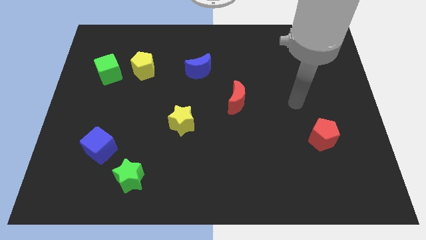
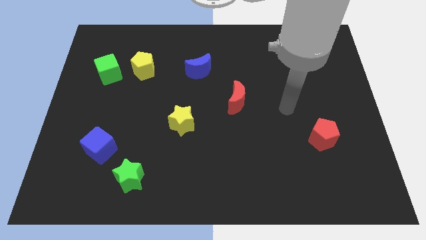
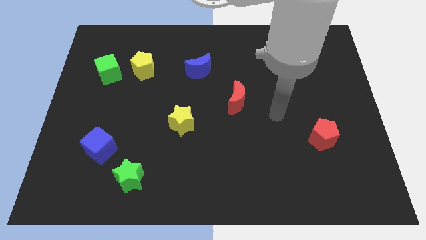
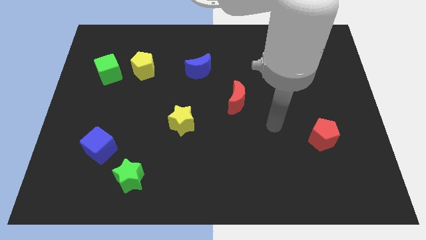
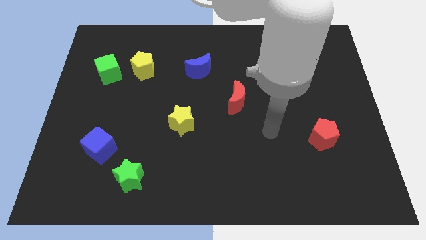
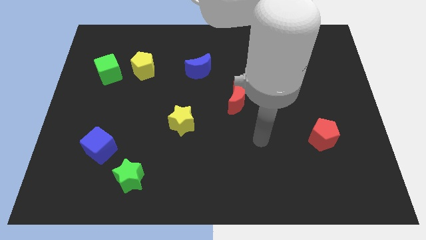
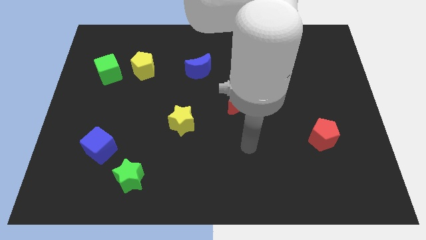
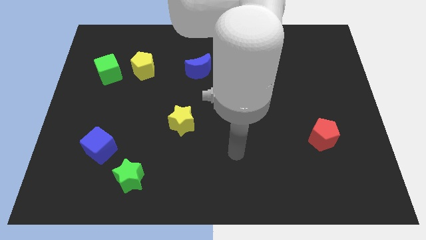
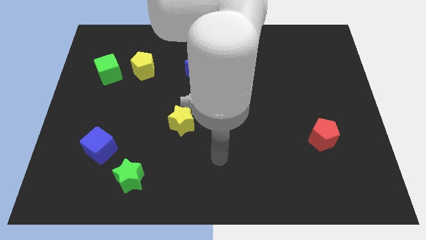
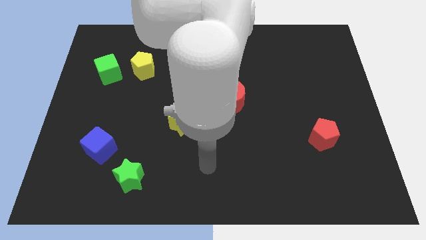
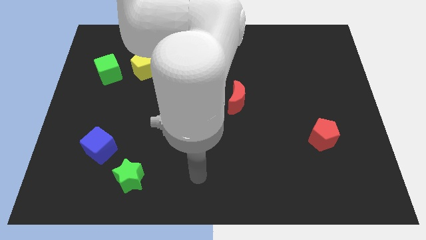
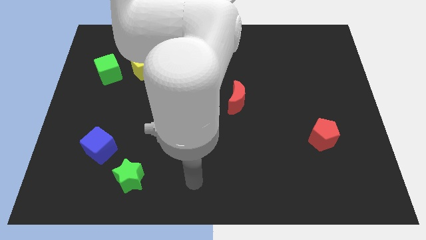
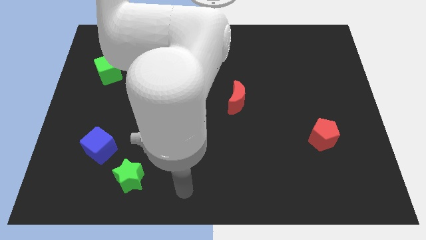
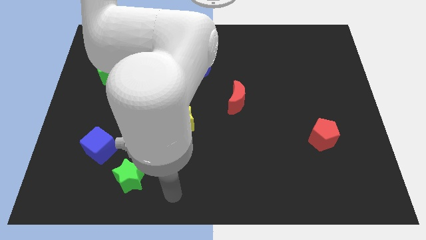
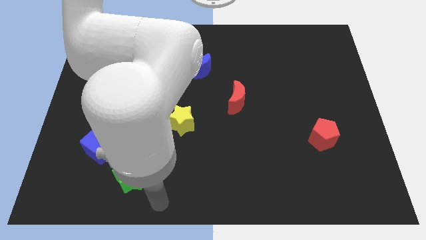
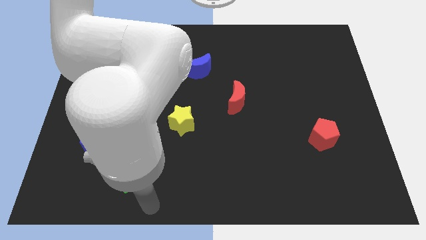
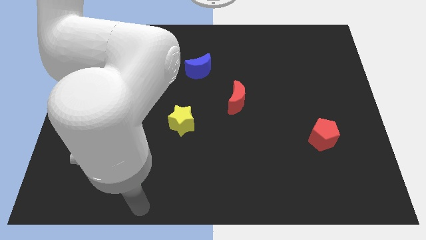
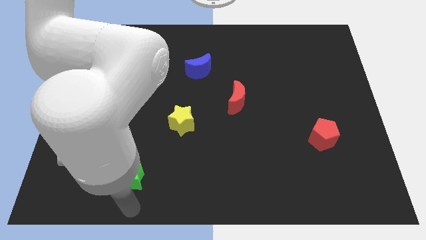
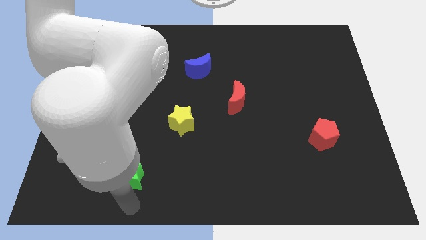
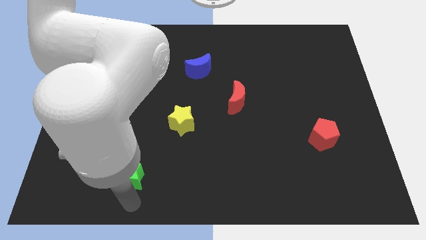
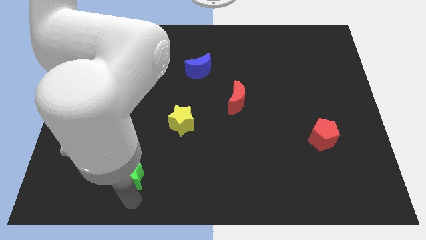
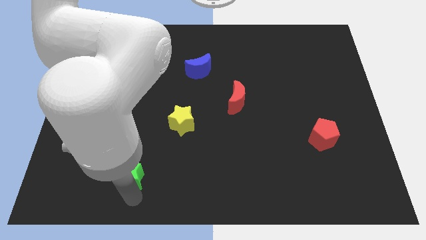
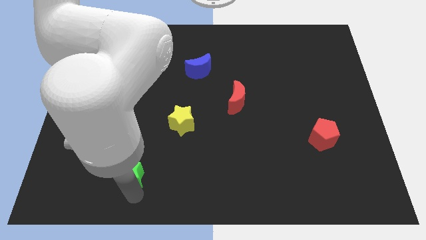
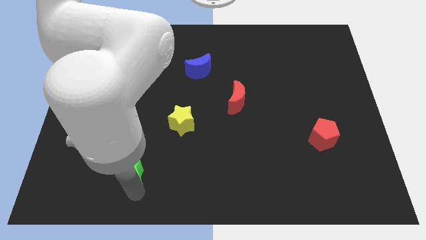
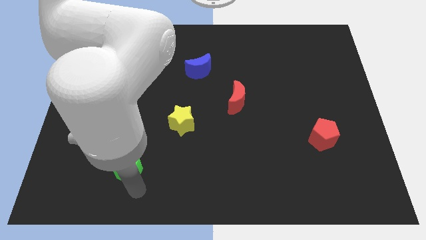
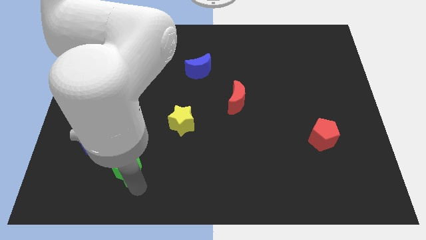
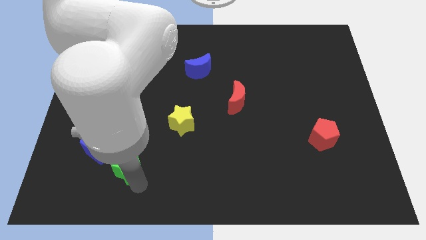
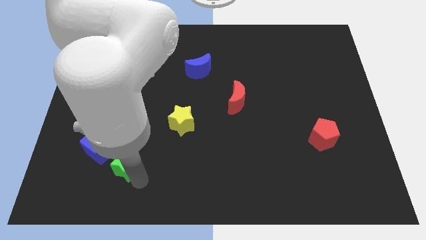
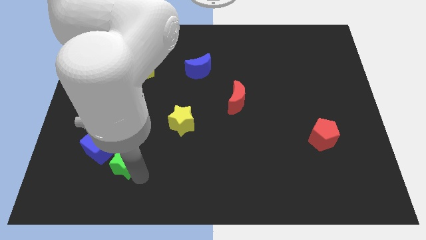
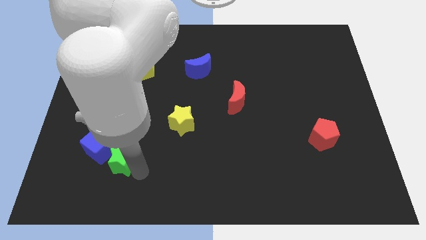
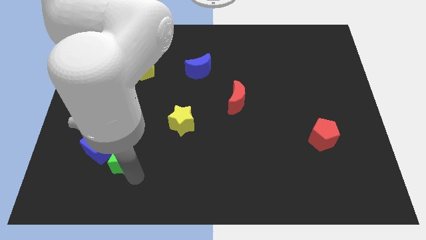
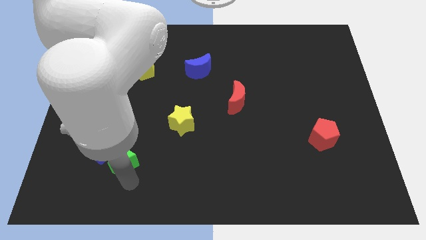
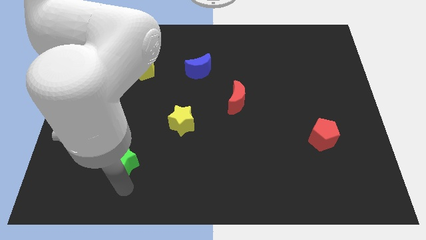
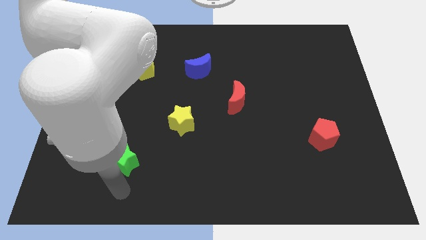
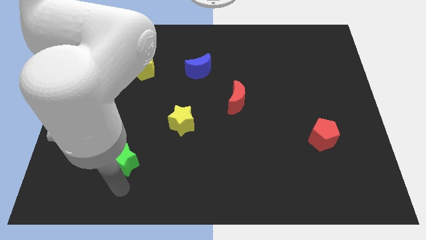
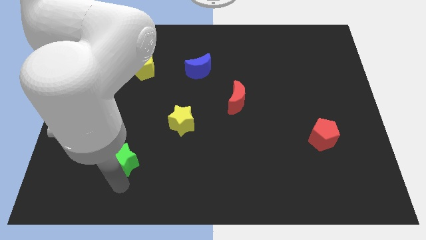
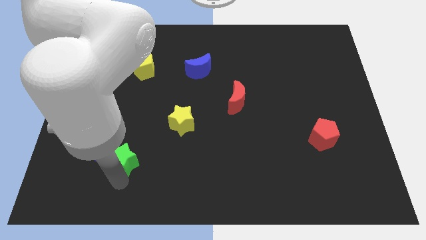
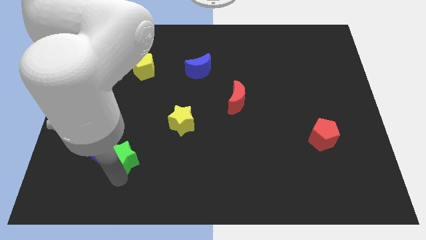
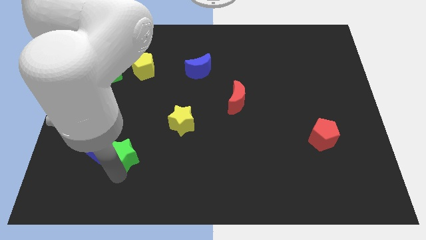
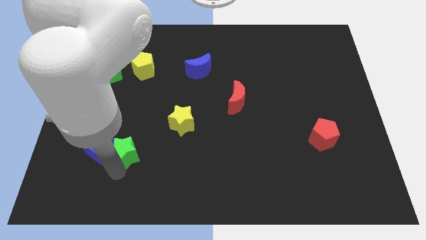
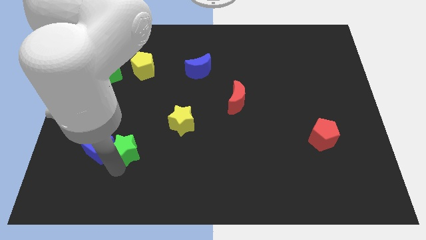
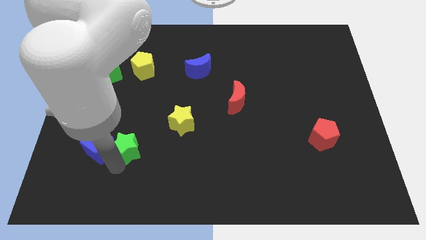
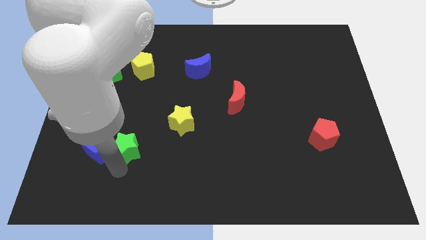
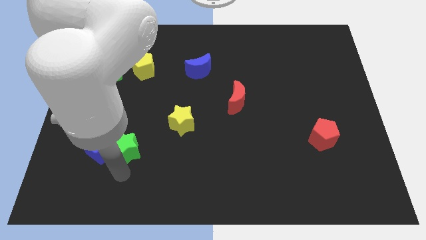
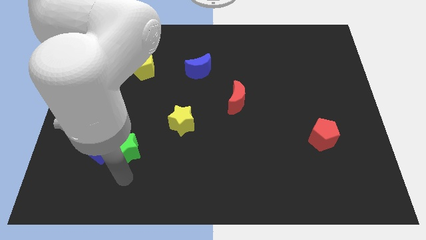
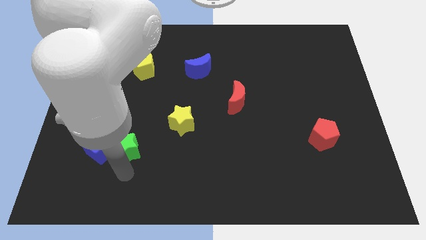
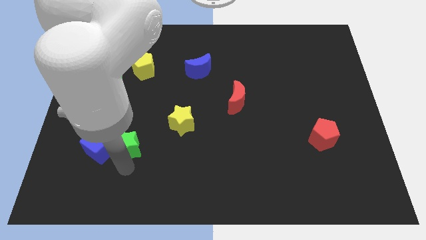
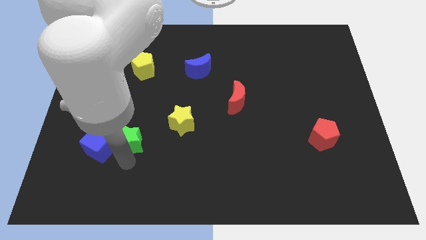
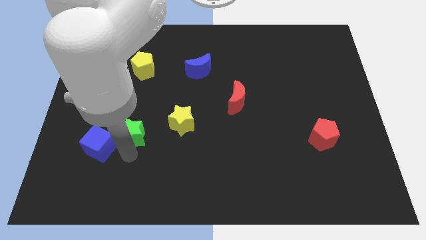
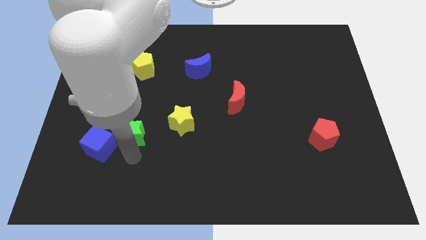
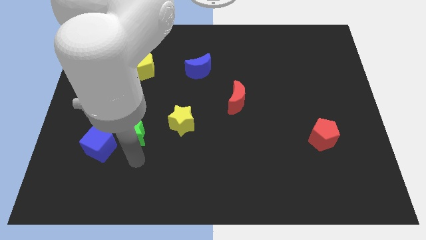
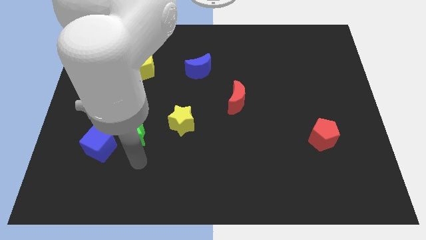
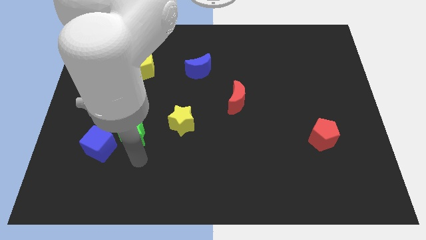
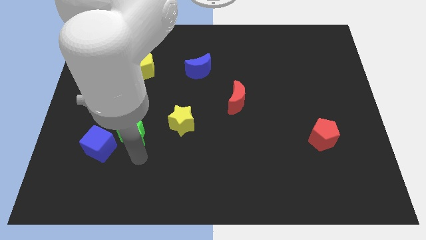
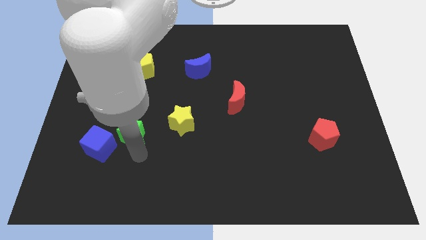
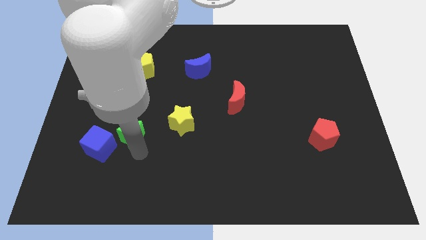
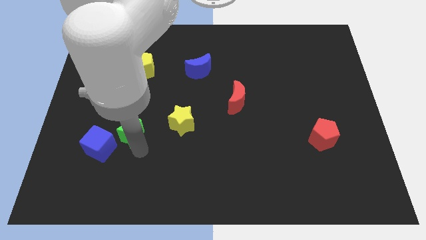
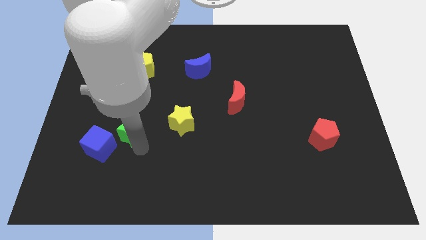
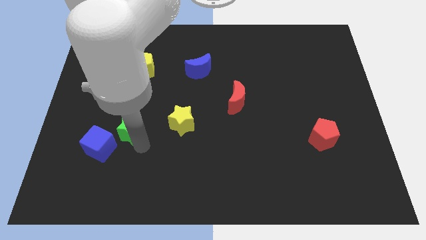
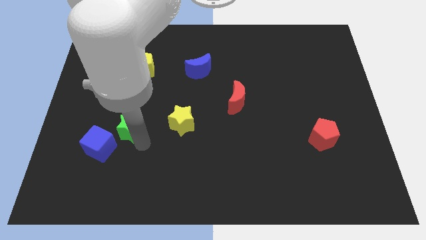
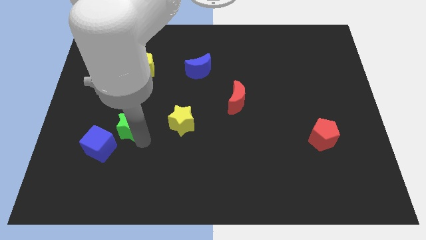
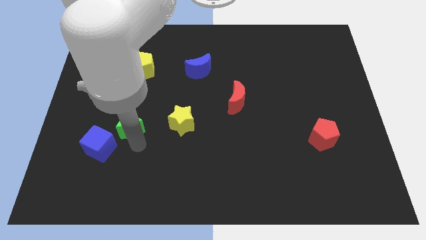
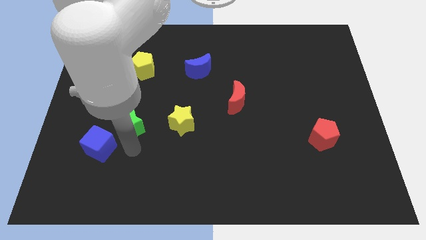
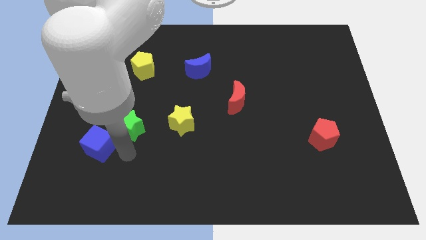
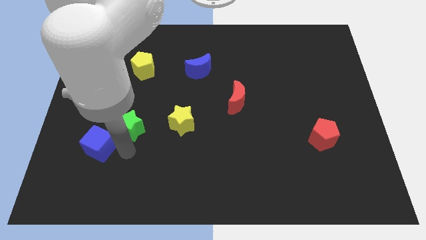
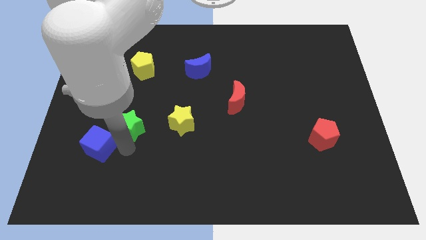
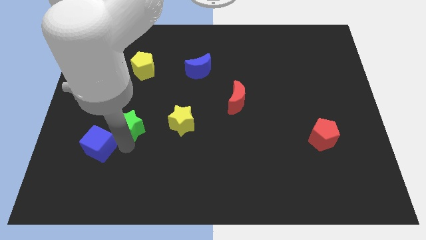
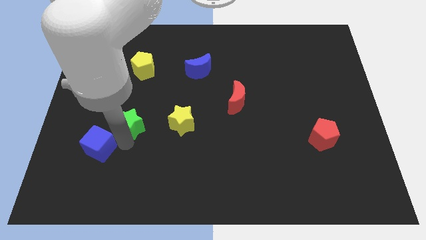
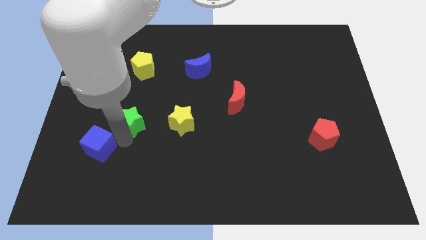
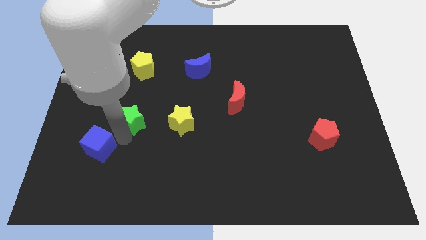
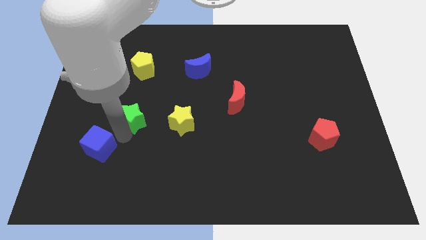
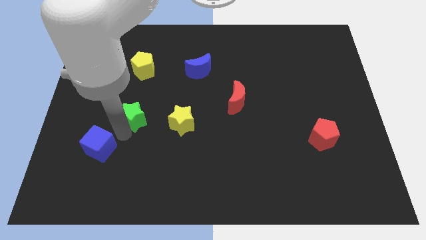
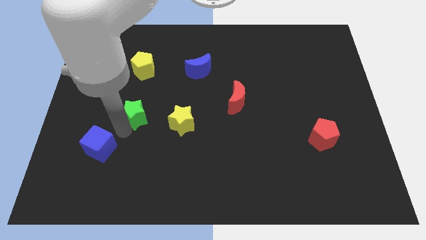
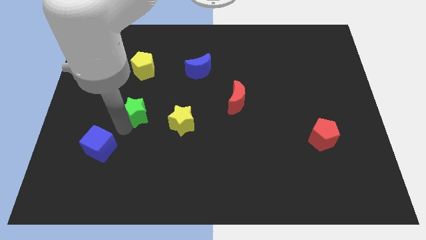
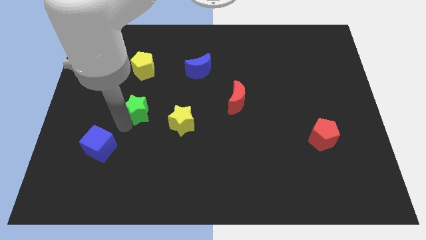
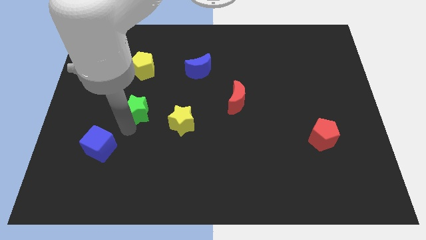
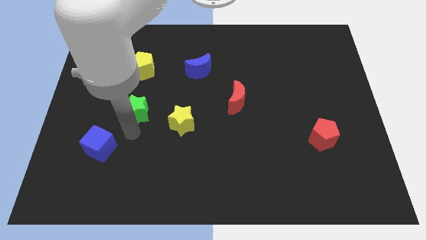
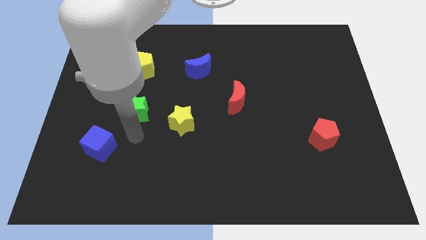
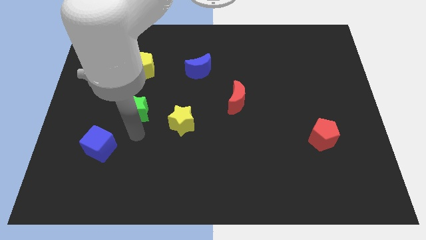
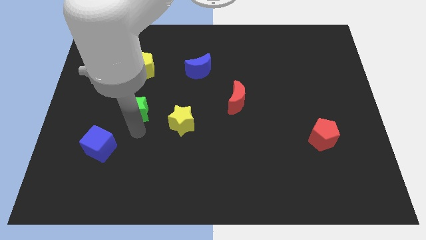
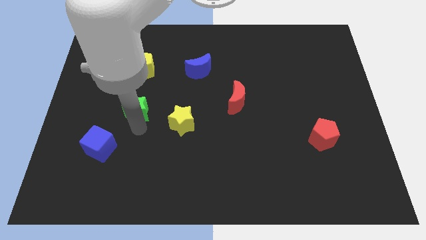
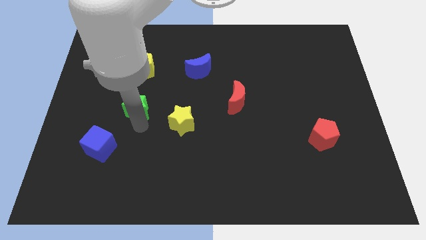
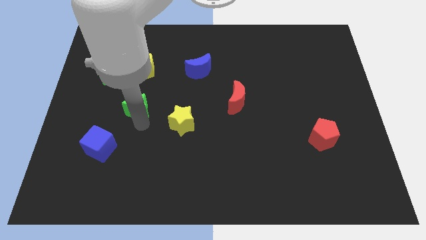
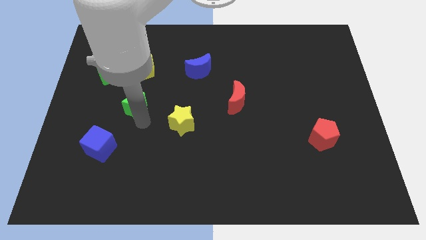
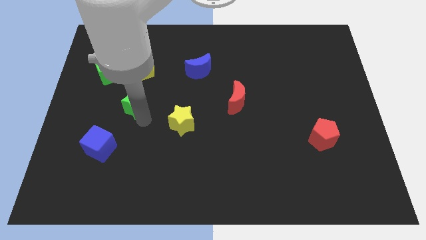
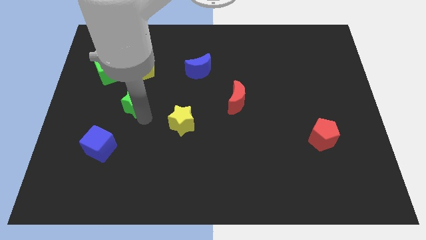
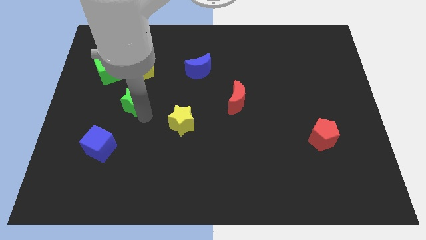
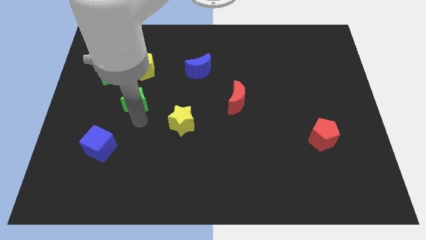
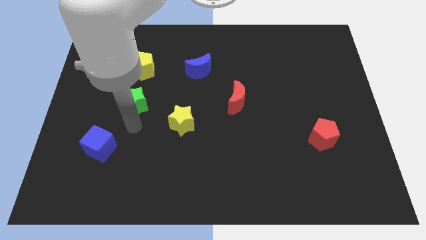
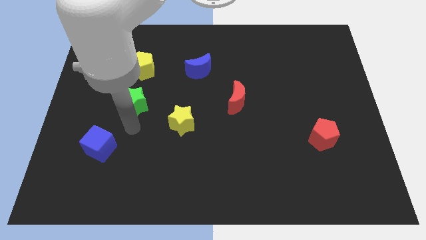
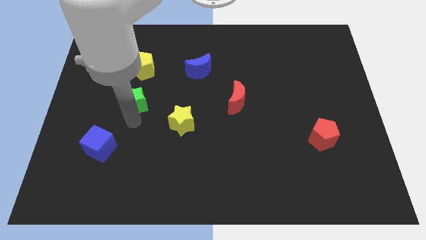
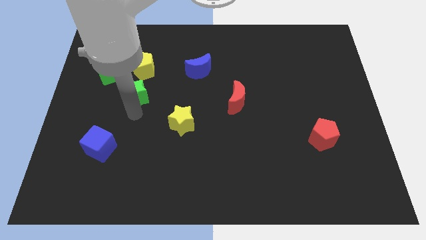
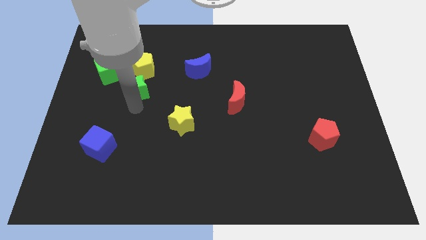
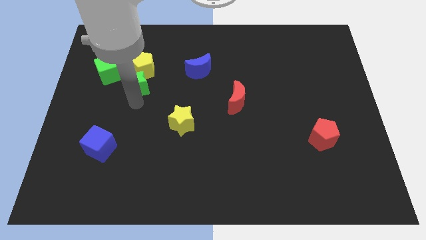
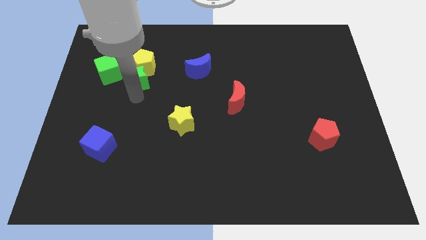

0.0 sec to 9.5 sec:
slide the green star towards the yellow pentagon
